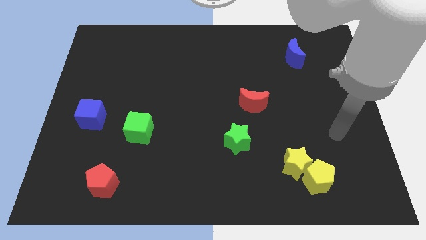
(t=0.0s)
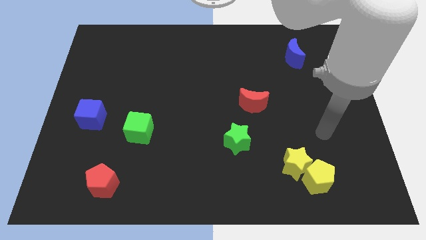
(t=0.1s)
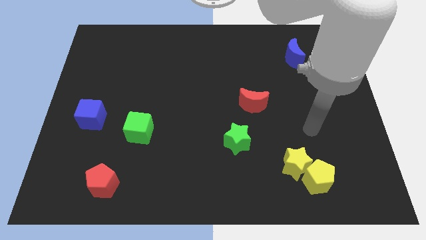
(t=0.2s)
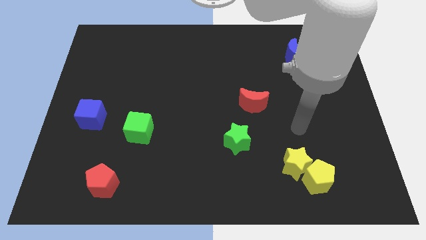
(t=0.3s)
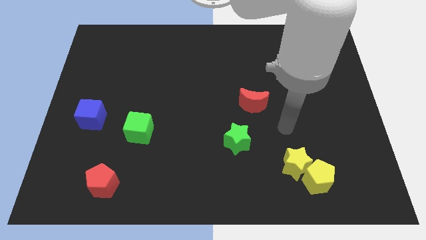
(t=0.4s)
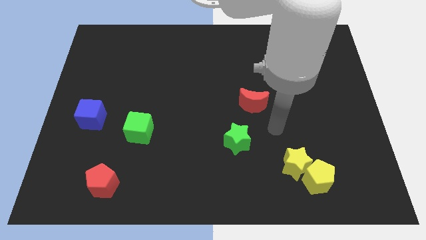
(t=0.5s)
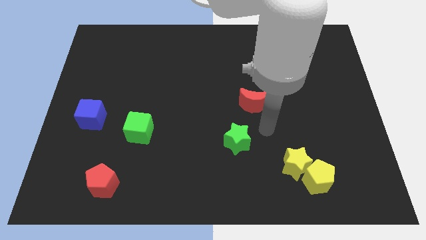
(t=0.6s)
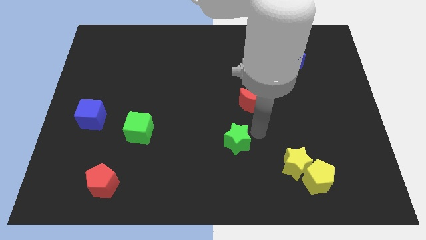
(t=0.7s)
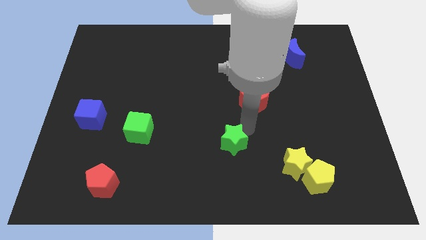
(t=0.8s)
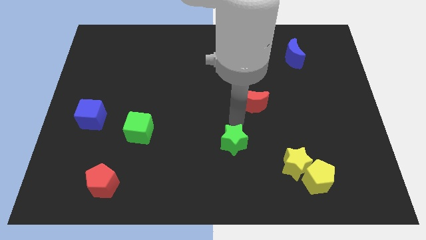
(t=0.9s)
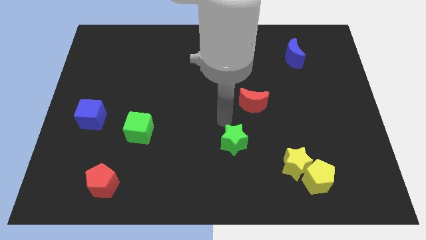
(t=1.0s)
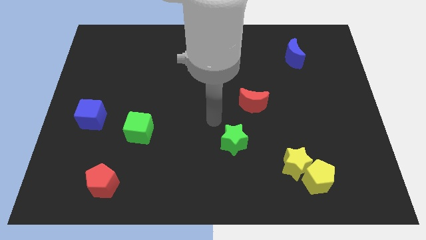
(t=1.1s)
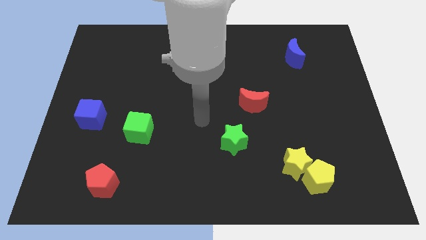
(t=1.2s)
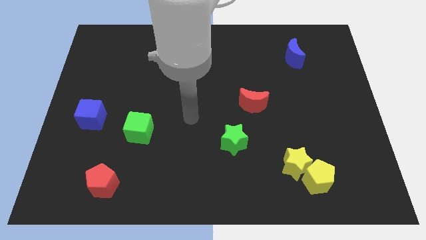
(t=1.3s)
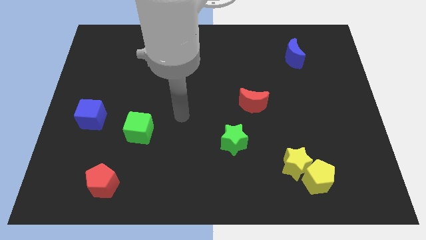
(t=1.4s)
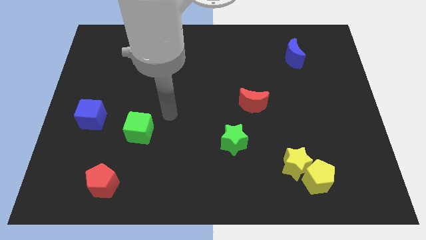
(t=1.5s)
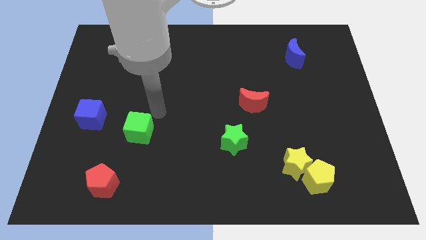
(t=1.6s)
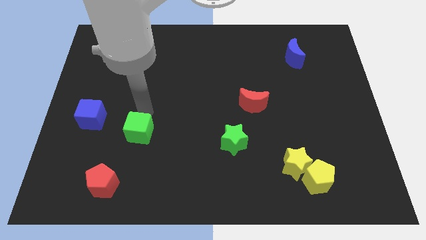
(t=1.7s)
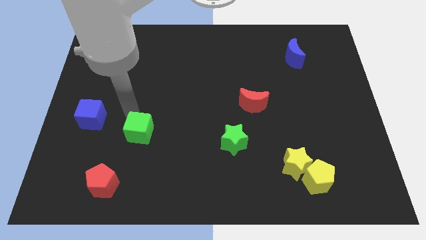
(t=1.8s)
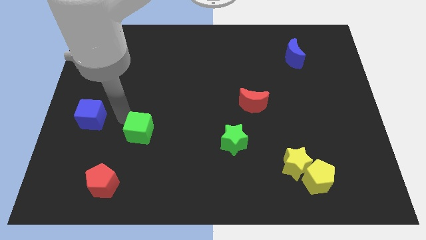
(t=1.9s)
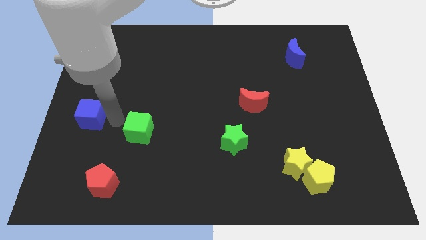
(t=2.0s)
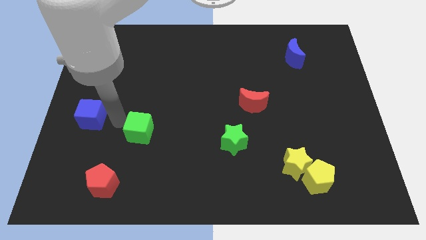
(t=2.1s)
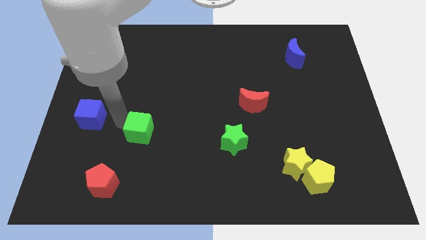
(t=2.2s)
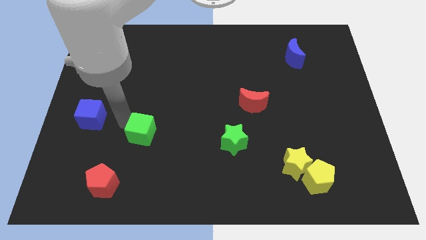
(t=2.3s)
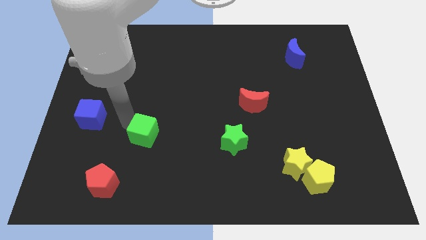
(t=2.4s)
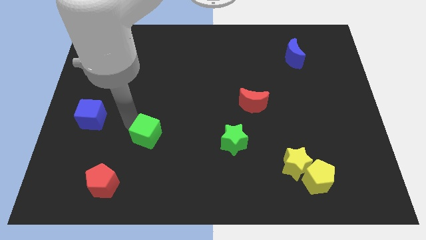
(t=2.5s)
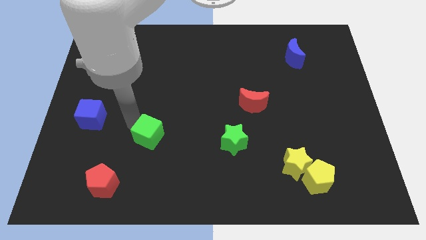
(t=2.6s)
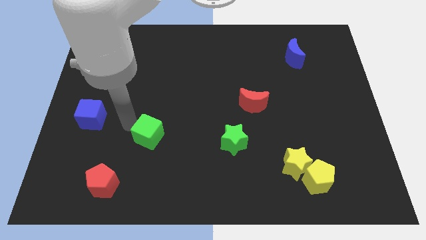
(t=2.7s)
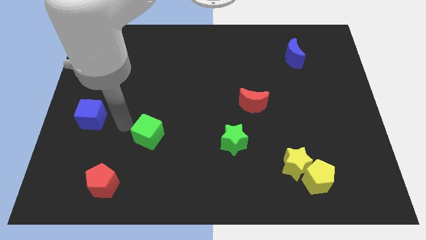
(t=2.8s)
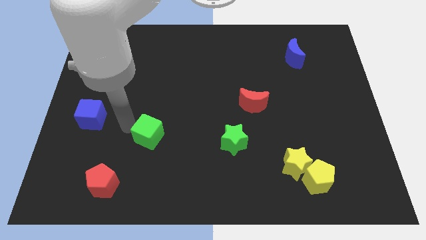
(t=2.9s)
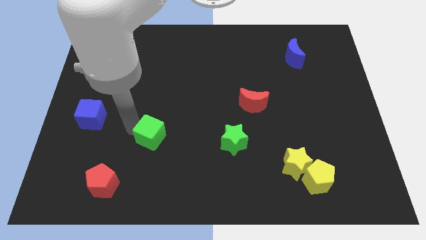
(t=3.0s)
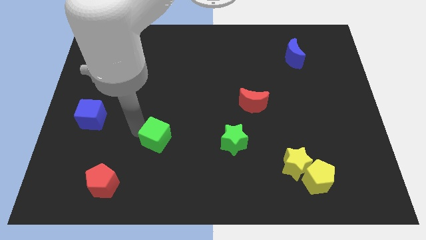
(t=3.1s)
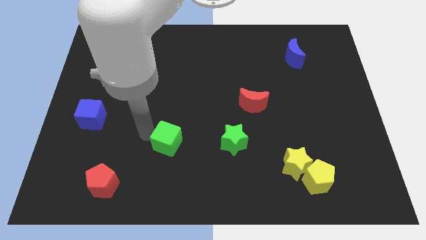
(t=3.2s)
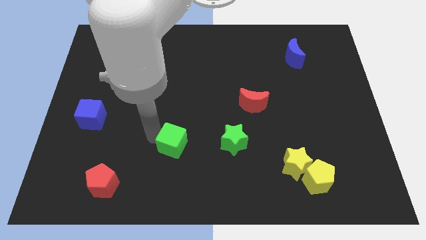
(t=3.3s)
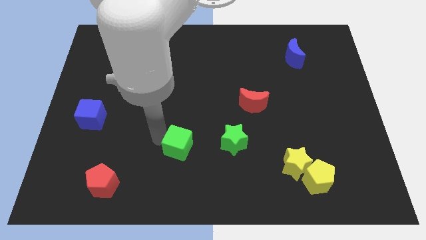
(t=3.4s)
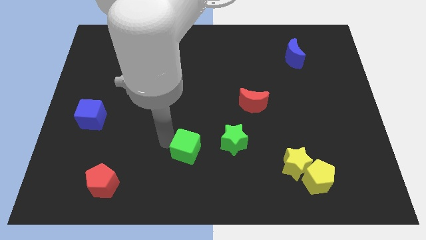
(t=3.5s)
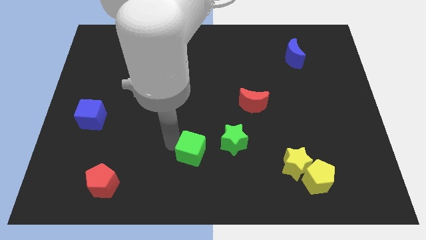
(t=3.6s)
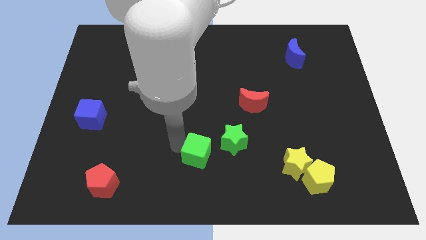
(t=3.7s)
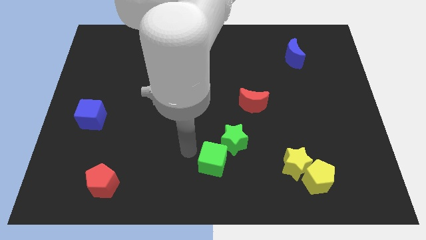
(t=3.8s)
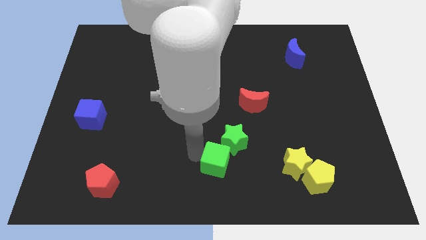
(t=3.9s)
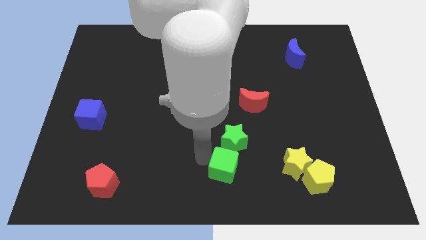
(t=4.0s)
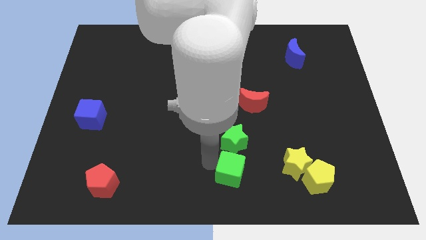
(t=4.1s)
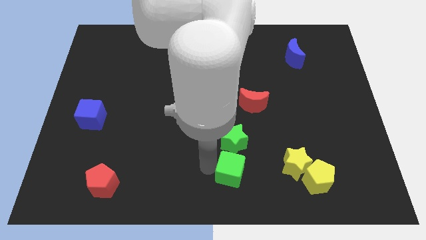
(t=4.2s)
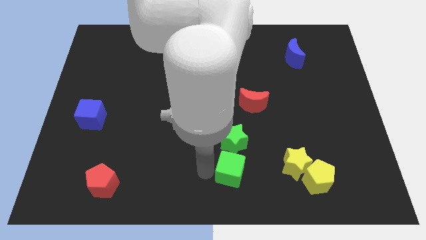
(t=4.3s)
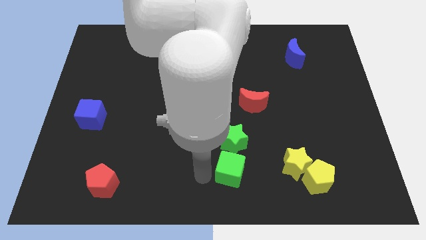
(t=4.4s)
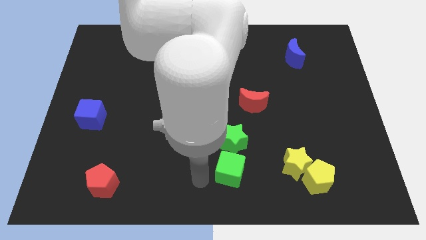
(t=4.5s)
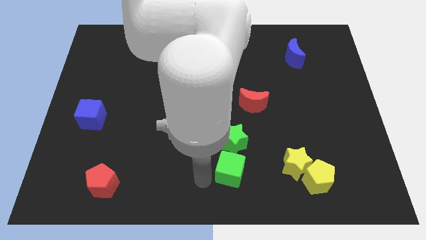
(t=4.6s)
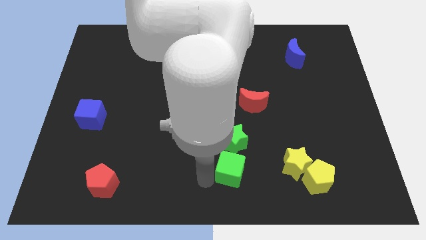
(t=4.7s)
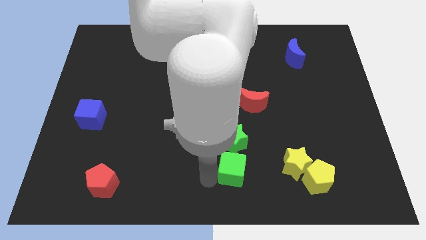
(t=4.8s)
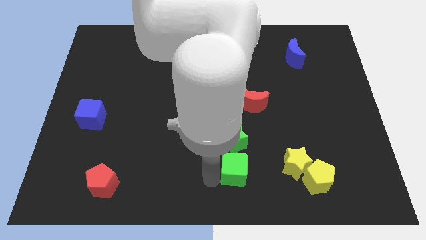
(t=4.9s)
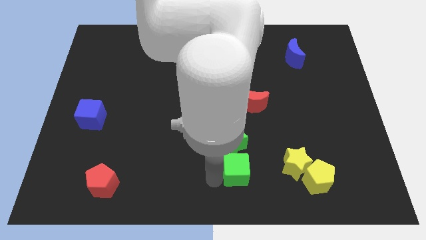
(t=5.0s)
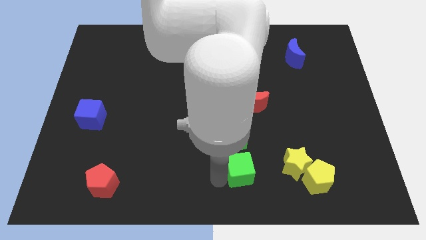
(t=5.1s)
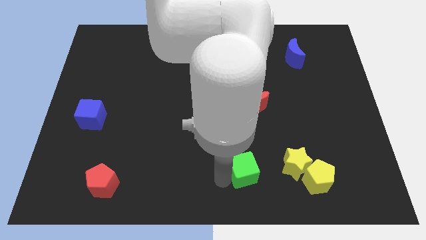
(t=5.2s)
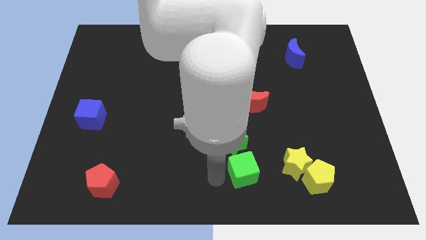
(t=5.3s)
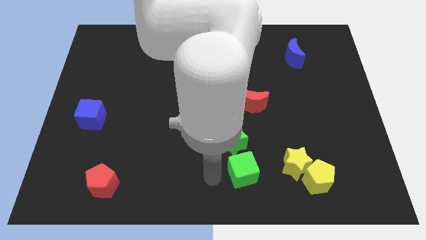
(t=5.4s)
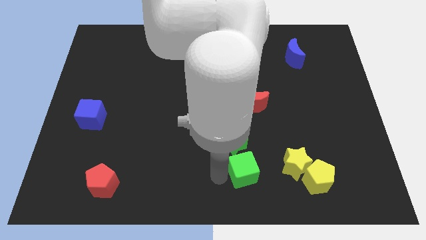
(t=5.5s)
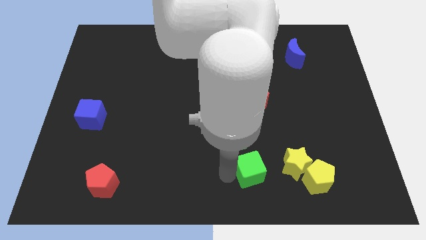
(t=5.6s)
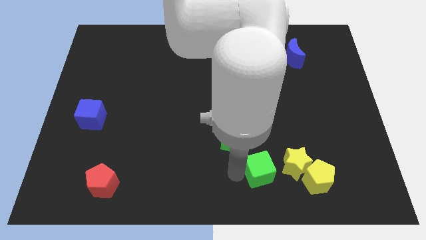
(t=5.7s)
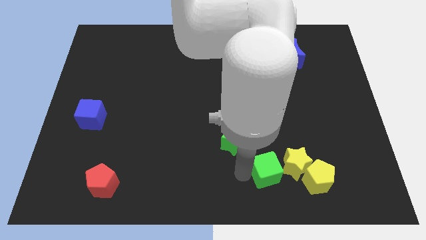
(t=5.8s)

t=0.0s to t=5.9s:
put the green cube close to the yellow star

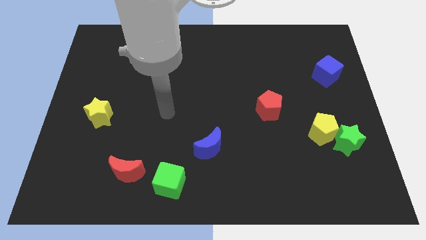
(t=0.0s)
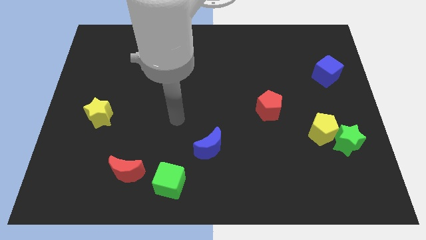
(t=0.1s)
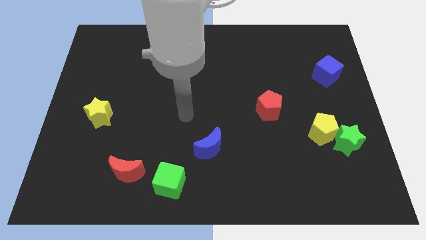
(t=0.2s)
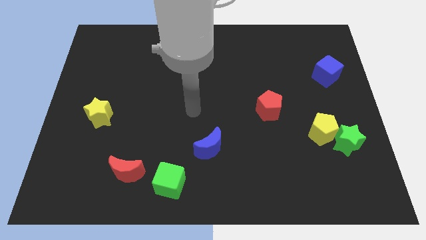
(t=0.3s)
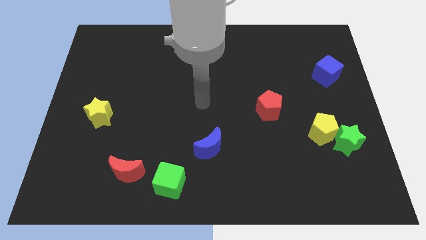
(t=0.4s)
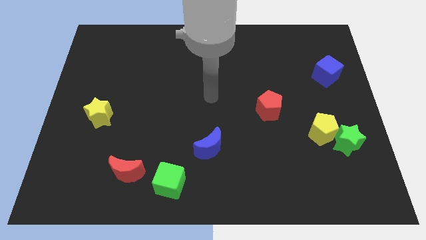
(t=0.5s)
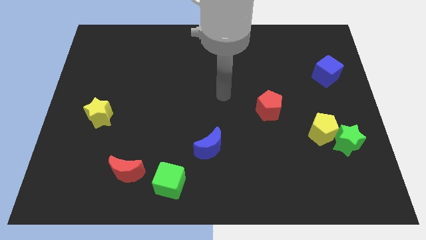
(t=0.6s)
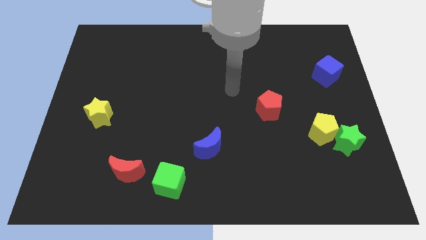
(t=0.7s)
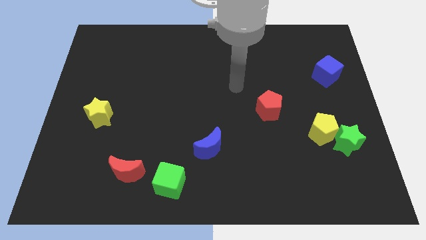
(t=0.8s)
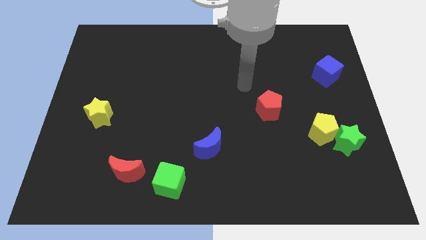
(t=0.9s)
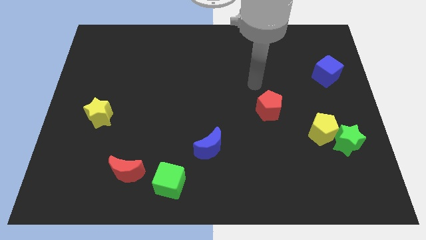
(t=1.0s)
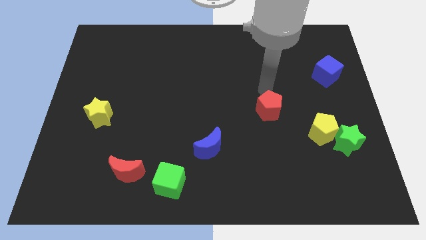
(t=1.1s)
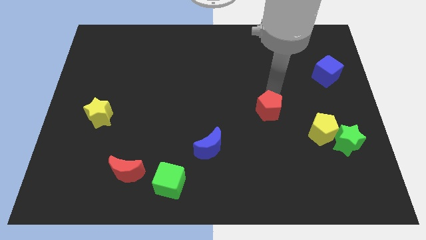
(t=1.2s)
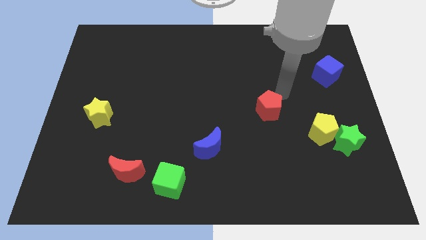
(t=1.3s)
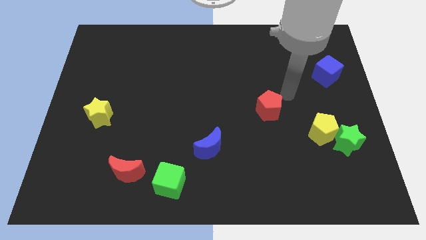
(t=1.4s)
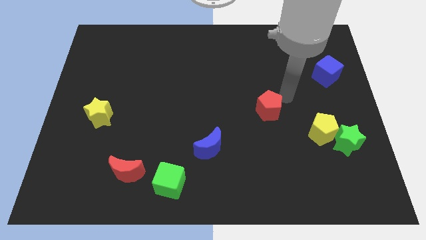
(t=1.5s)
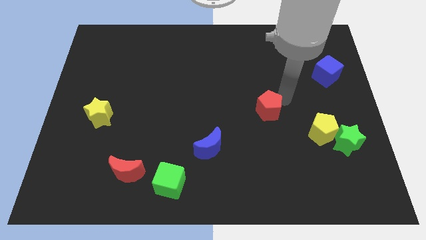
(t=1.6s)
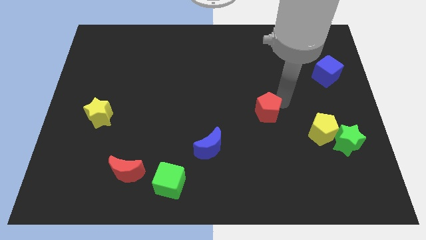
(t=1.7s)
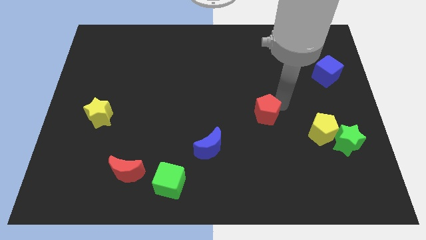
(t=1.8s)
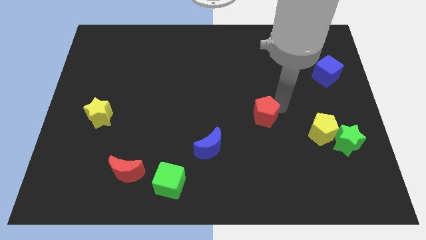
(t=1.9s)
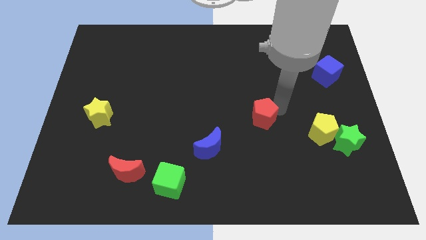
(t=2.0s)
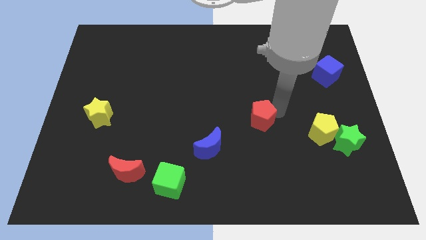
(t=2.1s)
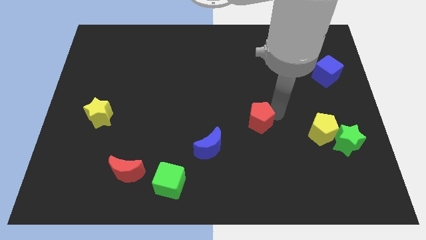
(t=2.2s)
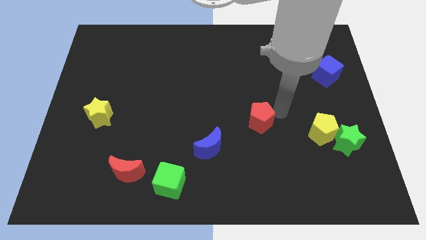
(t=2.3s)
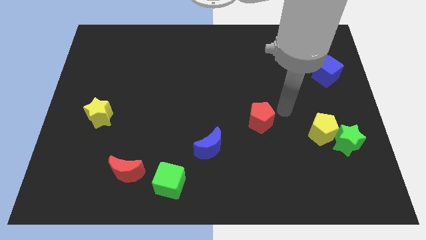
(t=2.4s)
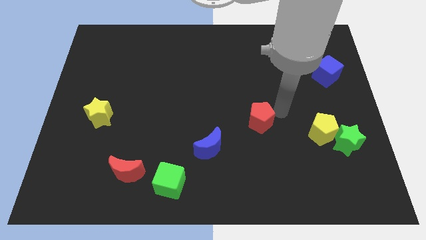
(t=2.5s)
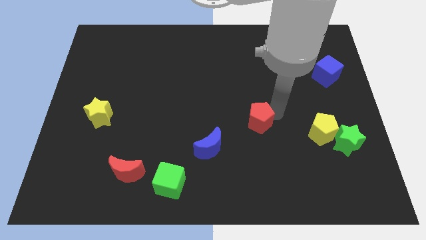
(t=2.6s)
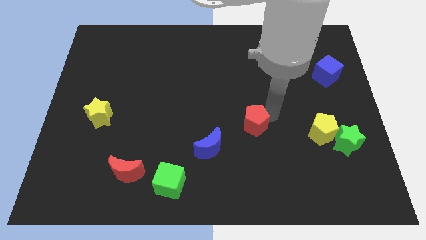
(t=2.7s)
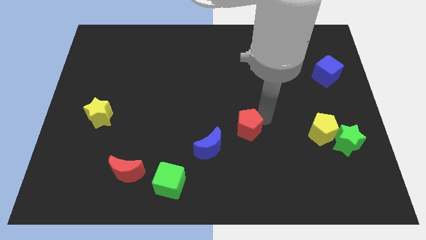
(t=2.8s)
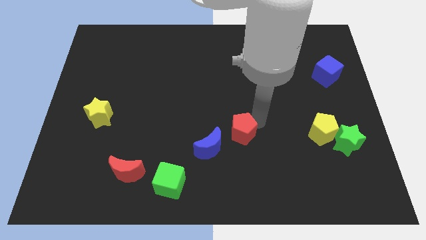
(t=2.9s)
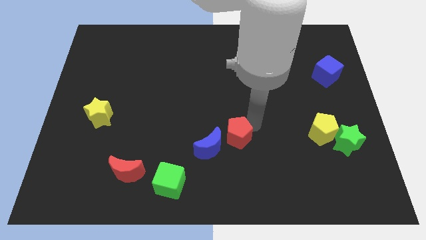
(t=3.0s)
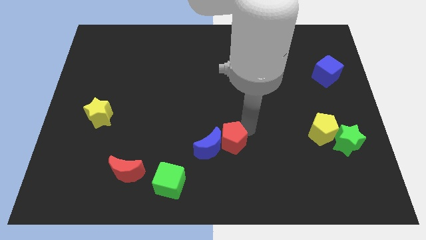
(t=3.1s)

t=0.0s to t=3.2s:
slide the red pentagon close to the blue moon
